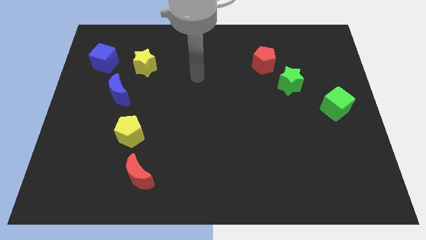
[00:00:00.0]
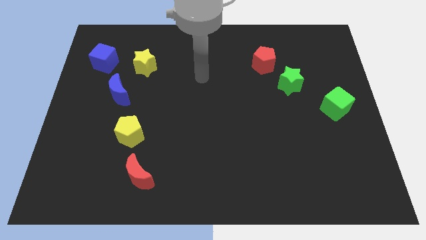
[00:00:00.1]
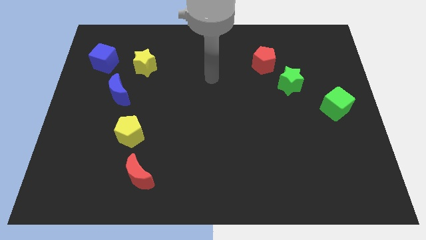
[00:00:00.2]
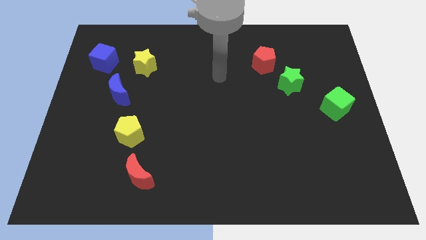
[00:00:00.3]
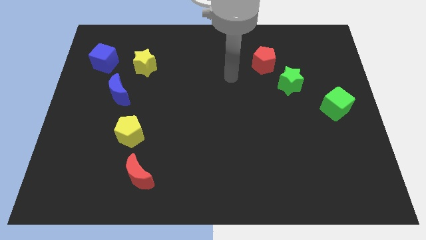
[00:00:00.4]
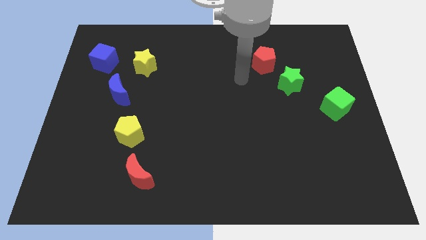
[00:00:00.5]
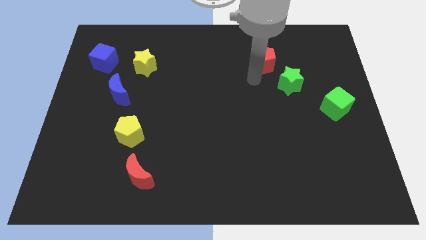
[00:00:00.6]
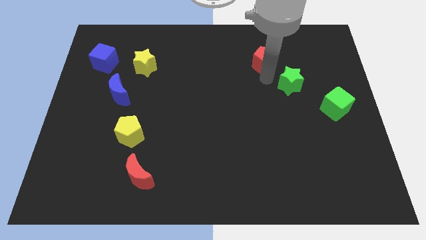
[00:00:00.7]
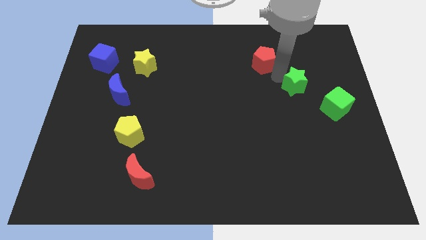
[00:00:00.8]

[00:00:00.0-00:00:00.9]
pull the red pentagon apart from the green star

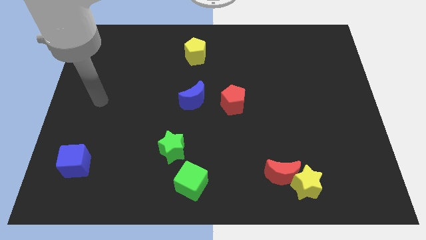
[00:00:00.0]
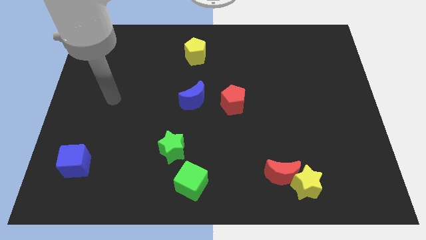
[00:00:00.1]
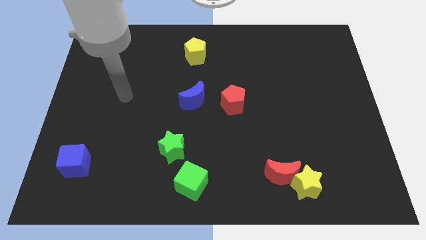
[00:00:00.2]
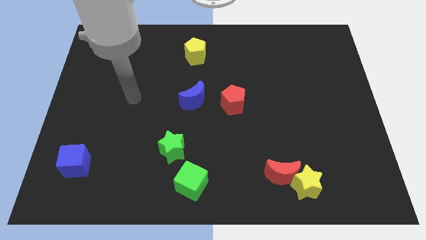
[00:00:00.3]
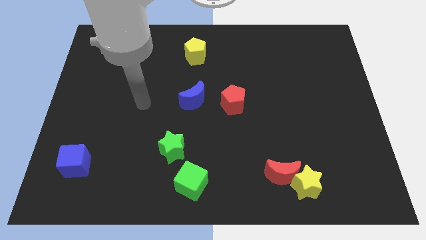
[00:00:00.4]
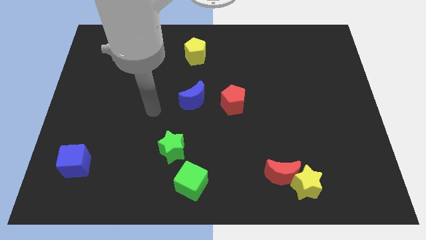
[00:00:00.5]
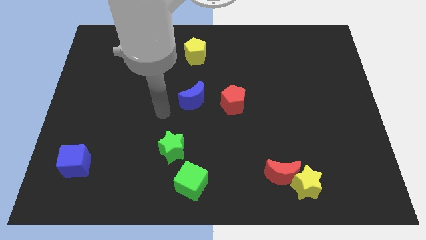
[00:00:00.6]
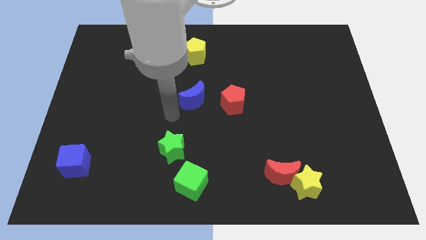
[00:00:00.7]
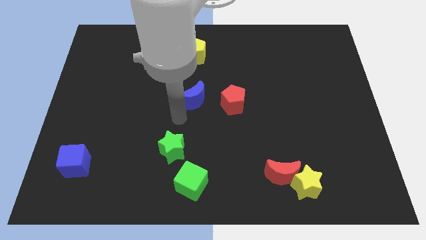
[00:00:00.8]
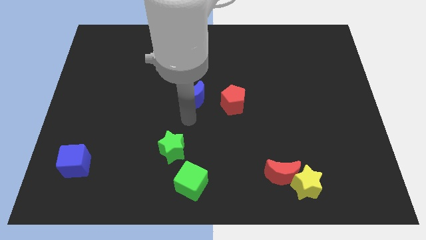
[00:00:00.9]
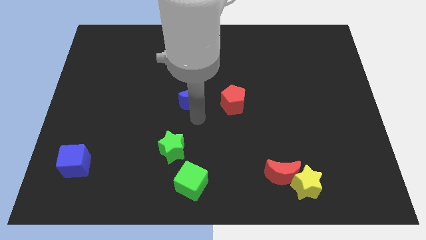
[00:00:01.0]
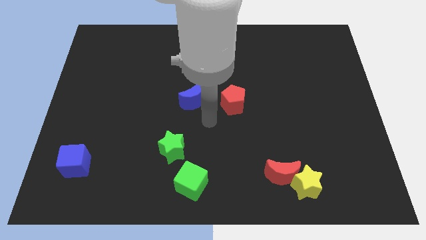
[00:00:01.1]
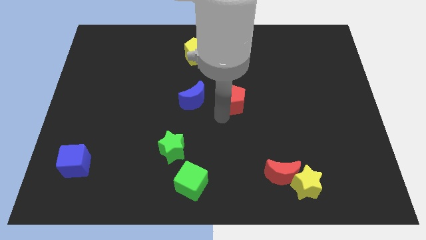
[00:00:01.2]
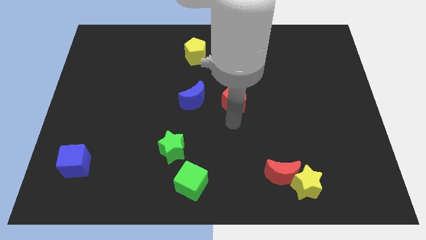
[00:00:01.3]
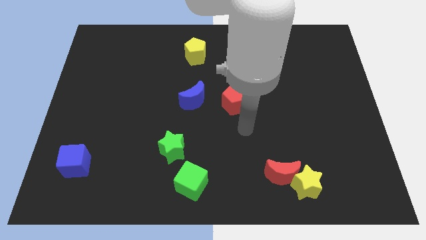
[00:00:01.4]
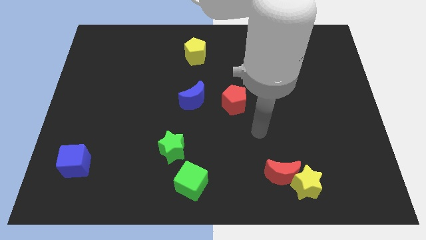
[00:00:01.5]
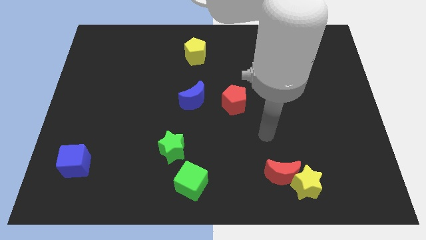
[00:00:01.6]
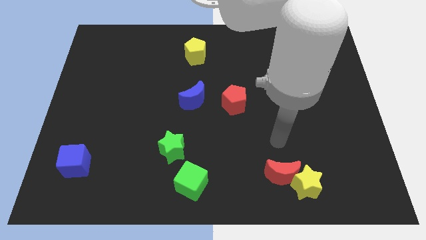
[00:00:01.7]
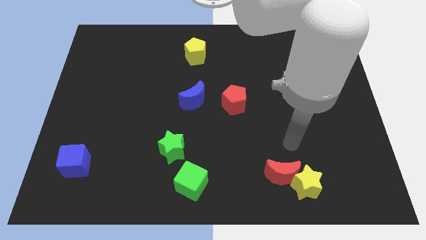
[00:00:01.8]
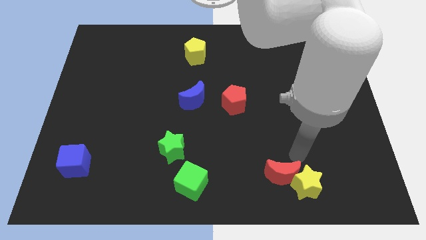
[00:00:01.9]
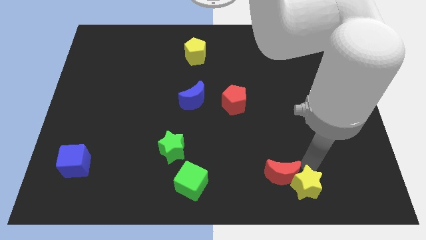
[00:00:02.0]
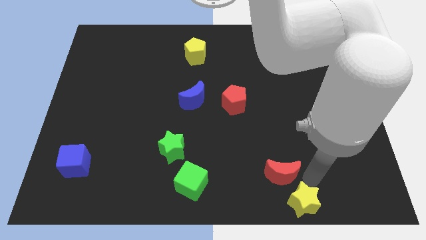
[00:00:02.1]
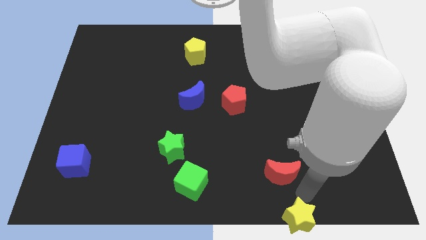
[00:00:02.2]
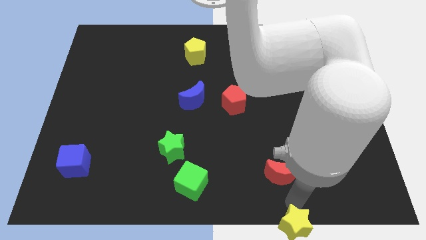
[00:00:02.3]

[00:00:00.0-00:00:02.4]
move the red moon away from the yellow star

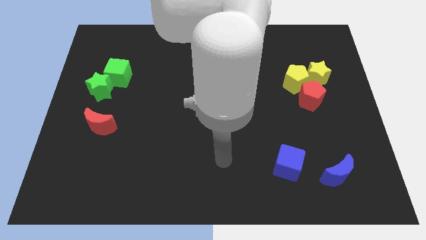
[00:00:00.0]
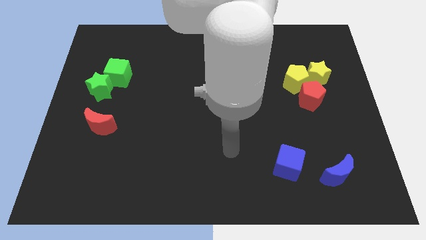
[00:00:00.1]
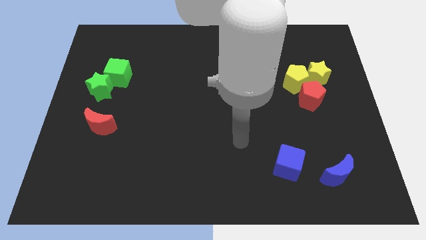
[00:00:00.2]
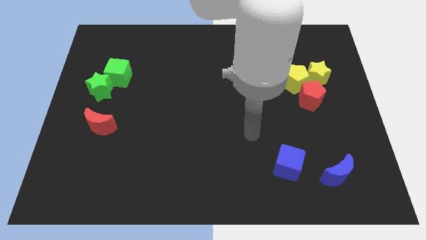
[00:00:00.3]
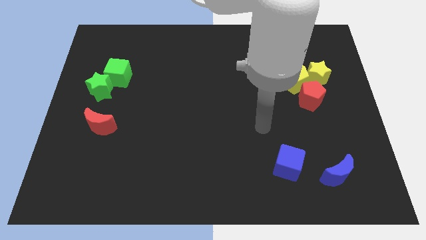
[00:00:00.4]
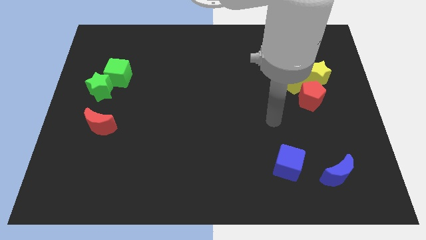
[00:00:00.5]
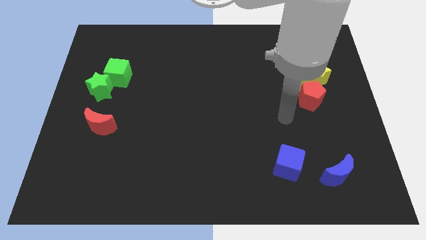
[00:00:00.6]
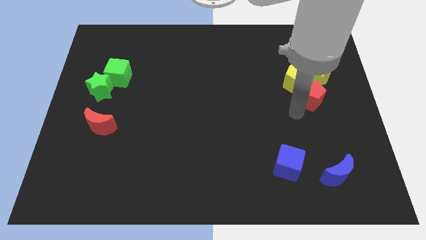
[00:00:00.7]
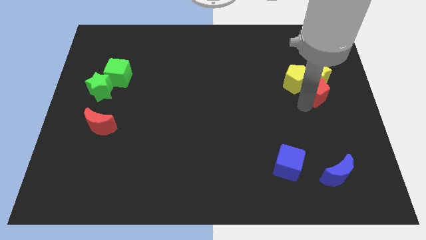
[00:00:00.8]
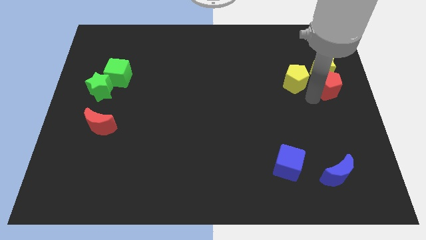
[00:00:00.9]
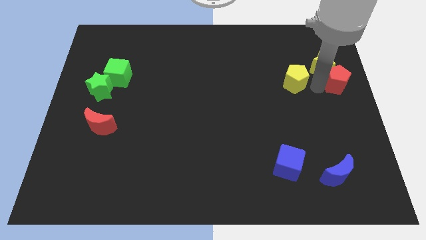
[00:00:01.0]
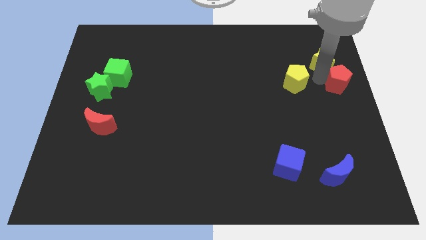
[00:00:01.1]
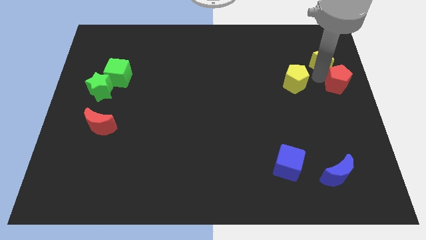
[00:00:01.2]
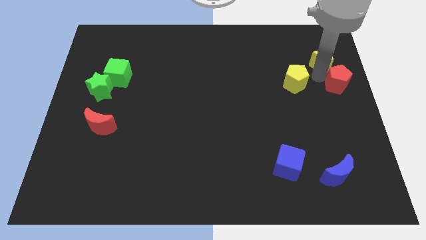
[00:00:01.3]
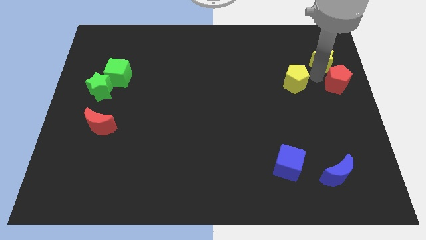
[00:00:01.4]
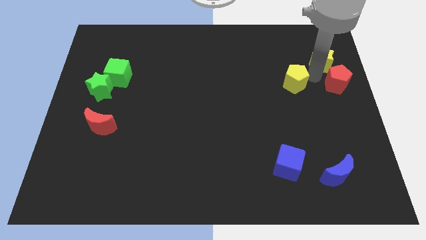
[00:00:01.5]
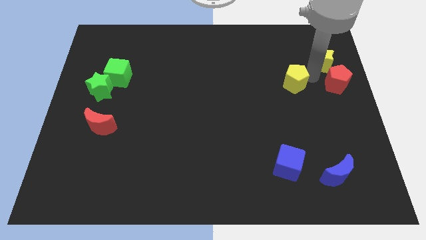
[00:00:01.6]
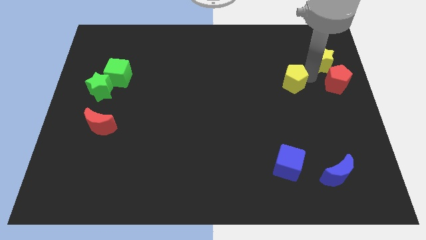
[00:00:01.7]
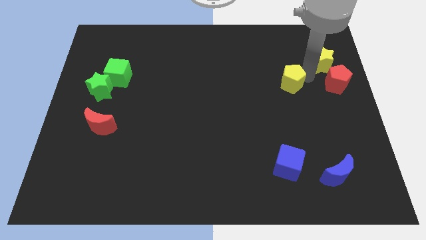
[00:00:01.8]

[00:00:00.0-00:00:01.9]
pull the yellow pentagon apart from the yellow star and red pentagon

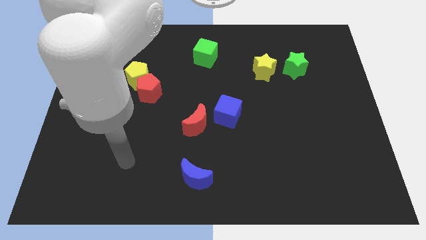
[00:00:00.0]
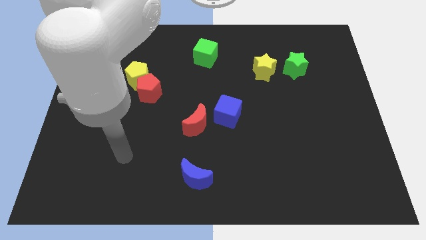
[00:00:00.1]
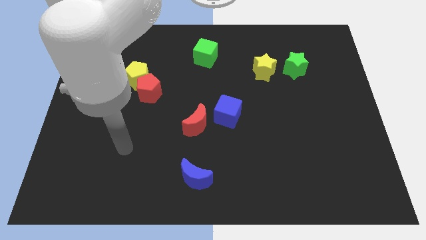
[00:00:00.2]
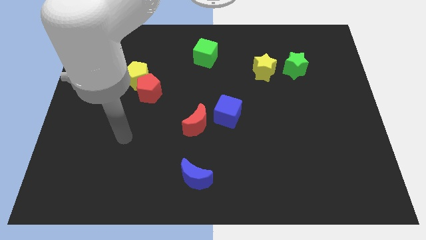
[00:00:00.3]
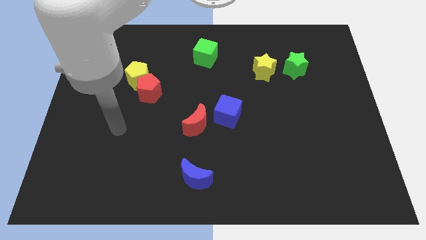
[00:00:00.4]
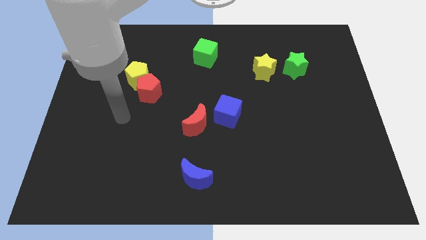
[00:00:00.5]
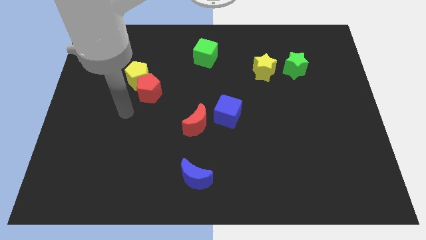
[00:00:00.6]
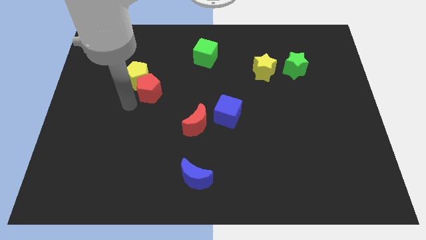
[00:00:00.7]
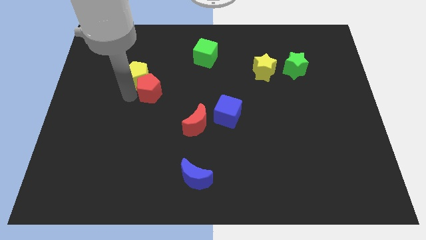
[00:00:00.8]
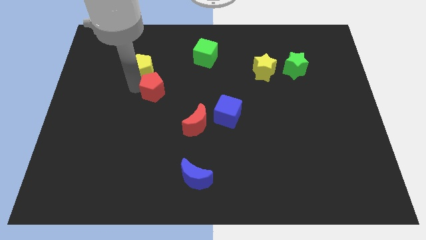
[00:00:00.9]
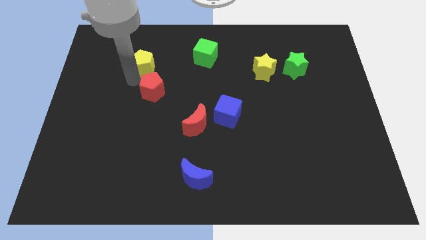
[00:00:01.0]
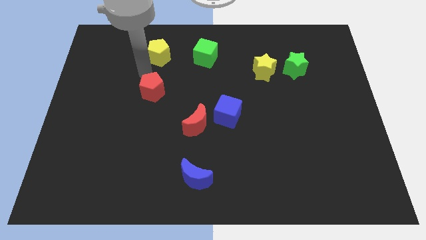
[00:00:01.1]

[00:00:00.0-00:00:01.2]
separate the red pentagon from the yellow pentagon

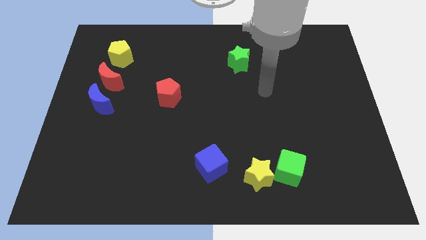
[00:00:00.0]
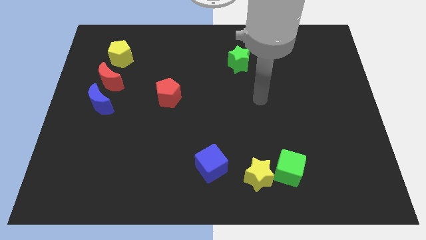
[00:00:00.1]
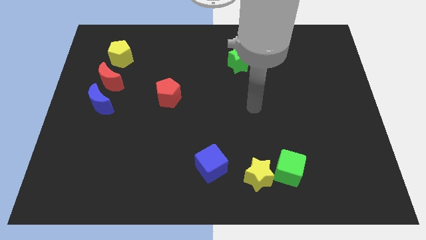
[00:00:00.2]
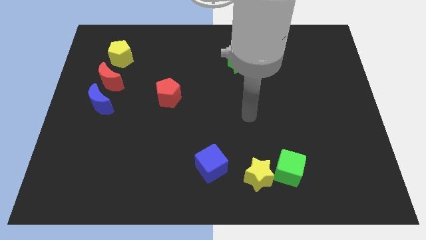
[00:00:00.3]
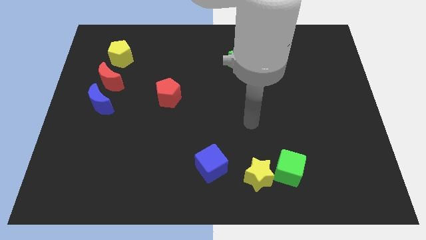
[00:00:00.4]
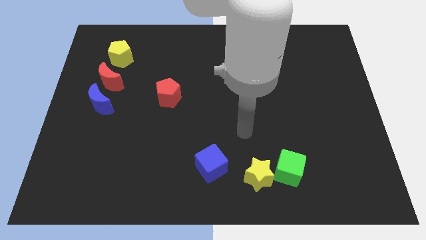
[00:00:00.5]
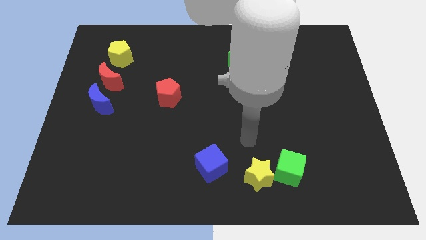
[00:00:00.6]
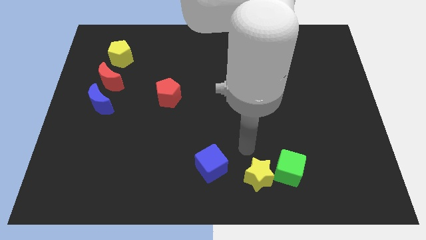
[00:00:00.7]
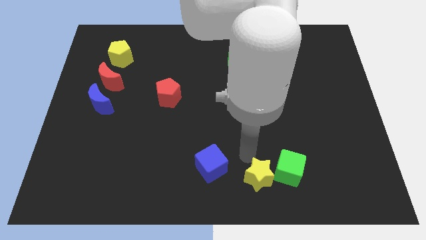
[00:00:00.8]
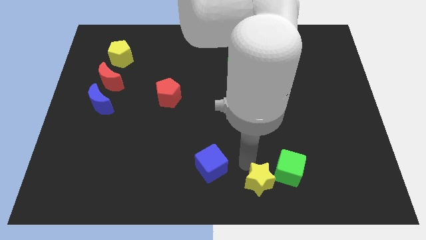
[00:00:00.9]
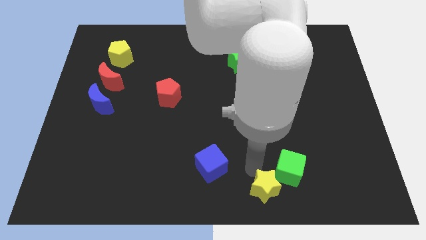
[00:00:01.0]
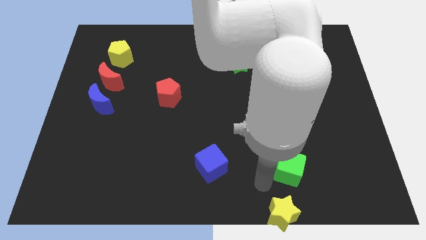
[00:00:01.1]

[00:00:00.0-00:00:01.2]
separate the green cube from the yellow star

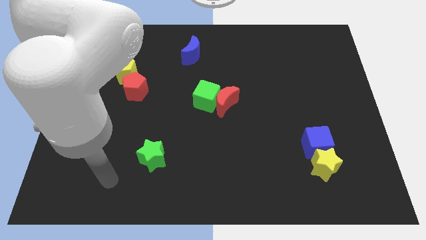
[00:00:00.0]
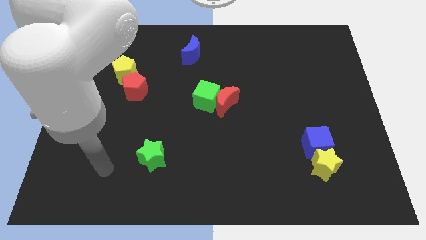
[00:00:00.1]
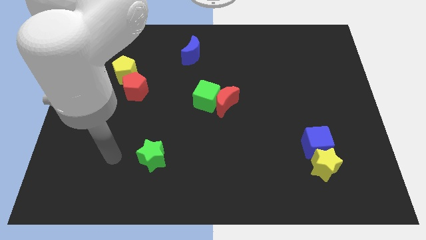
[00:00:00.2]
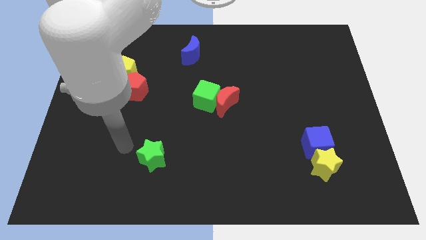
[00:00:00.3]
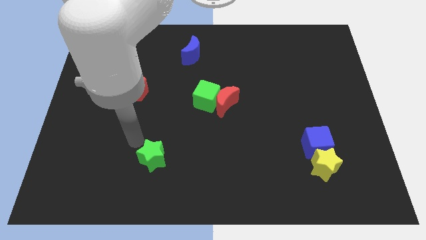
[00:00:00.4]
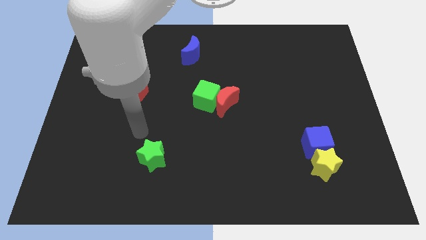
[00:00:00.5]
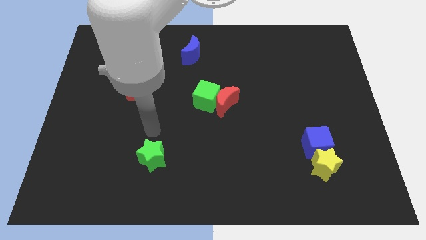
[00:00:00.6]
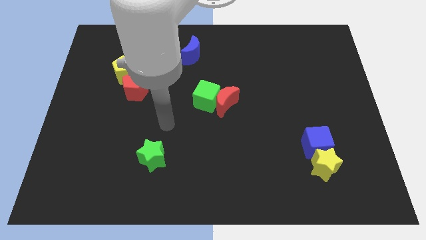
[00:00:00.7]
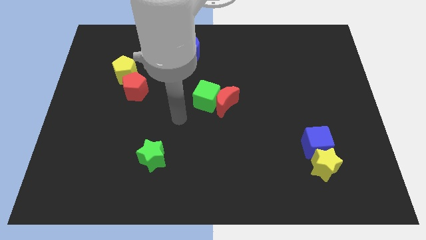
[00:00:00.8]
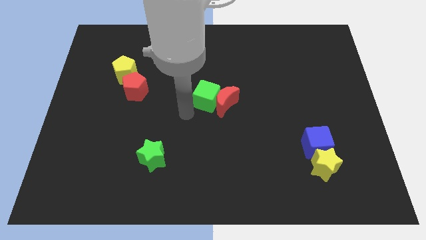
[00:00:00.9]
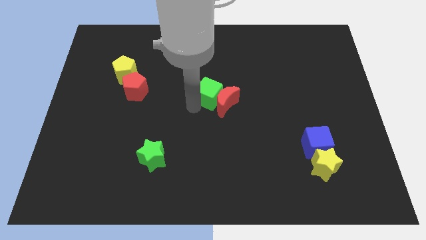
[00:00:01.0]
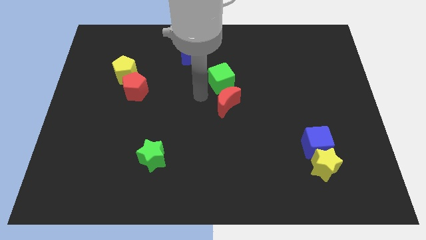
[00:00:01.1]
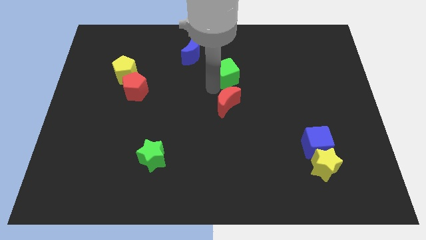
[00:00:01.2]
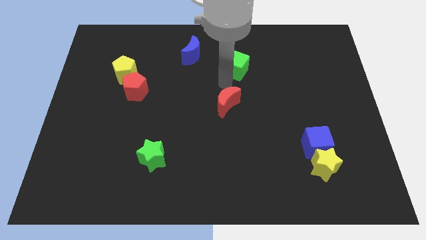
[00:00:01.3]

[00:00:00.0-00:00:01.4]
pull the red moon apart from the green cube

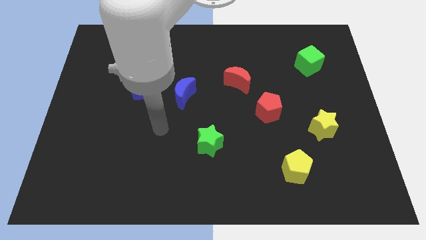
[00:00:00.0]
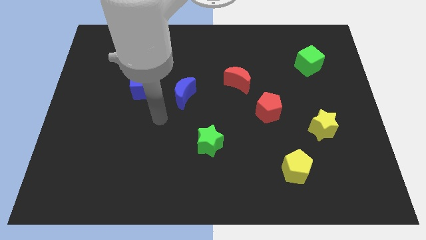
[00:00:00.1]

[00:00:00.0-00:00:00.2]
move the blue moon away from the blue cube
